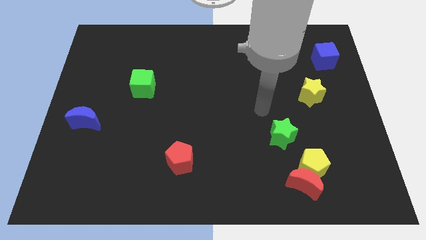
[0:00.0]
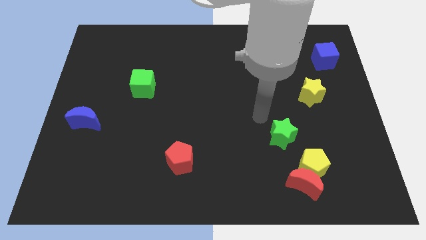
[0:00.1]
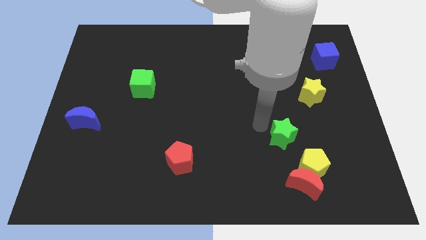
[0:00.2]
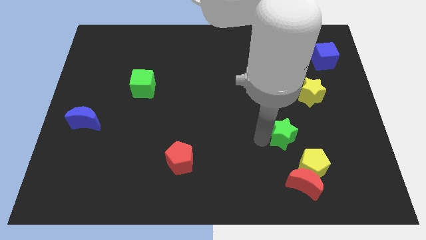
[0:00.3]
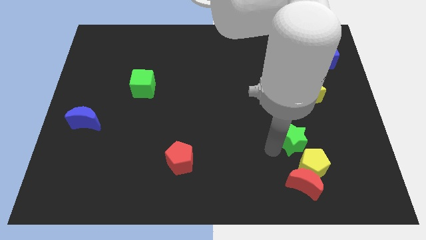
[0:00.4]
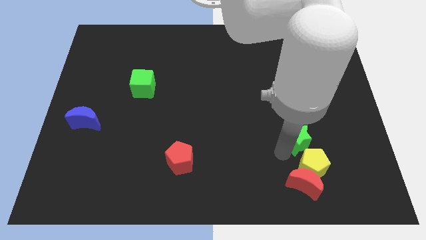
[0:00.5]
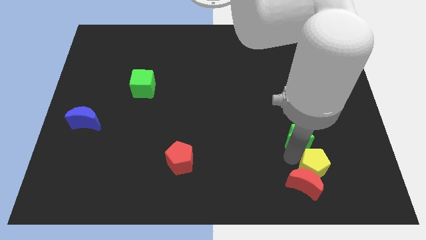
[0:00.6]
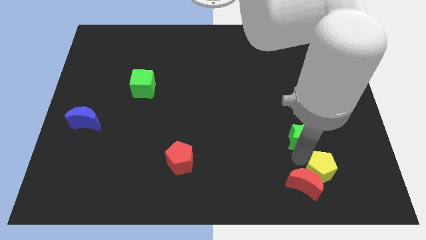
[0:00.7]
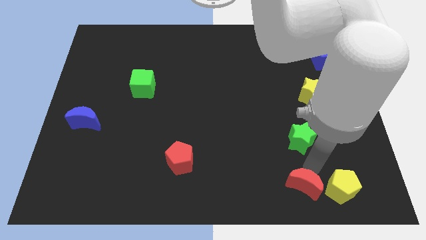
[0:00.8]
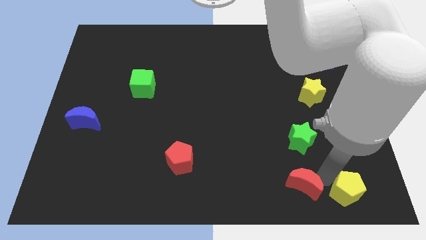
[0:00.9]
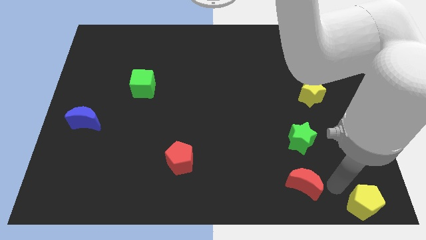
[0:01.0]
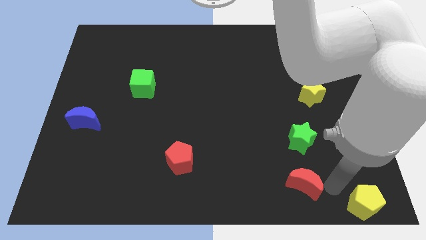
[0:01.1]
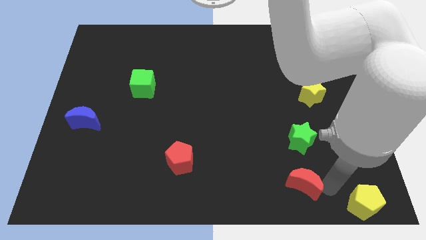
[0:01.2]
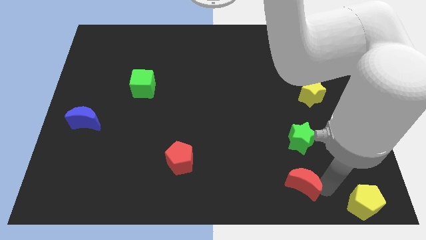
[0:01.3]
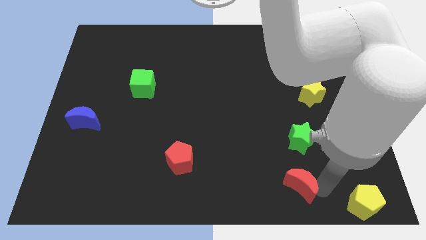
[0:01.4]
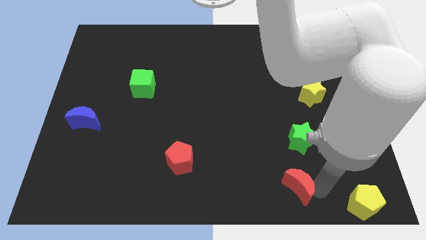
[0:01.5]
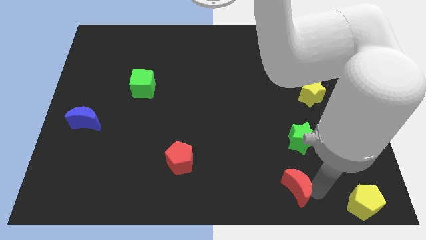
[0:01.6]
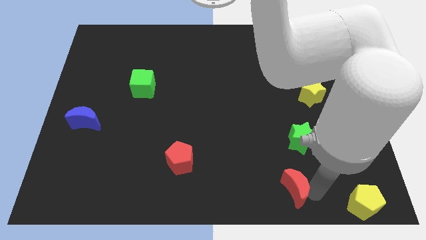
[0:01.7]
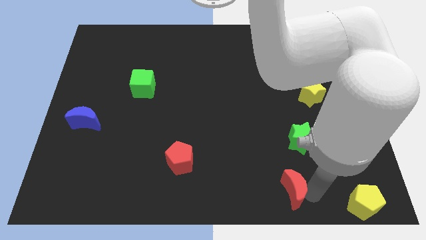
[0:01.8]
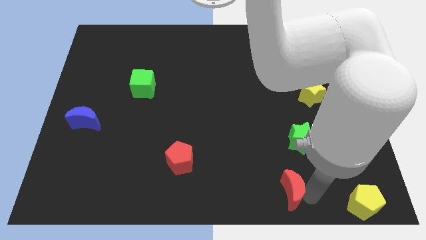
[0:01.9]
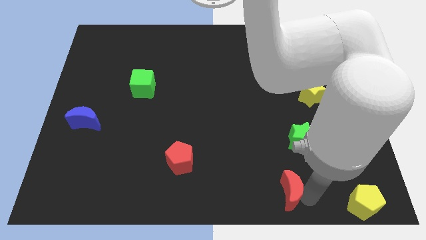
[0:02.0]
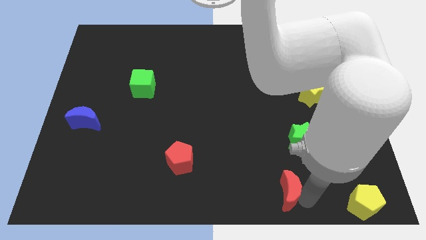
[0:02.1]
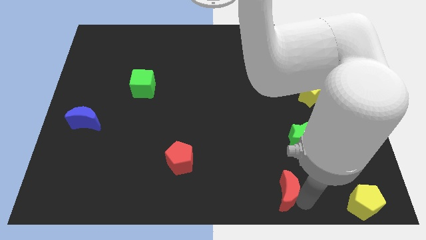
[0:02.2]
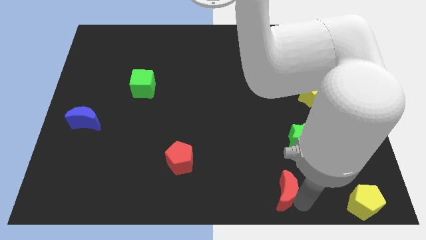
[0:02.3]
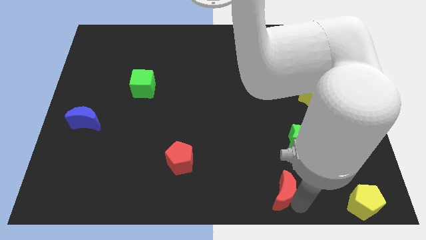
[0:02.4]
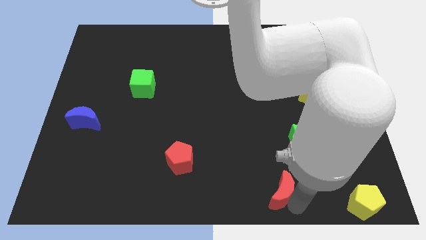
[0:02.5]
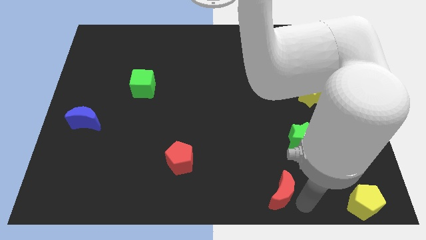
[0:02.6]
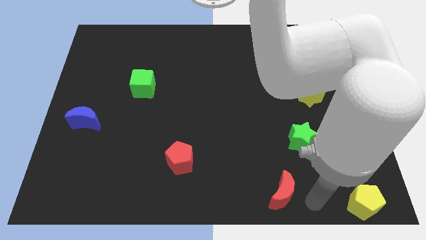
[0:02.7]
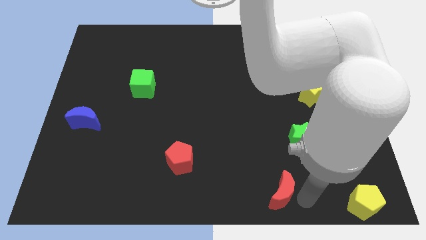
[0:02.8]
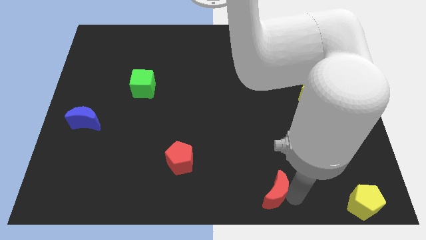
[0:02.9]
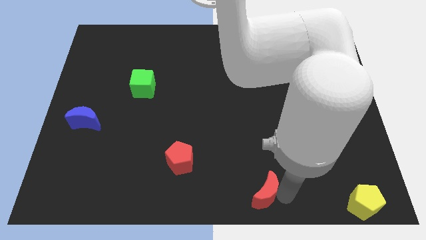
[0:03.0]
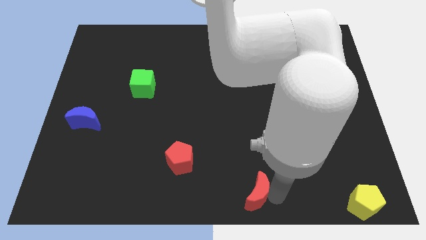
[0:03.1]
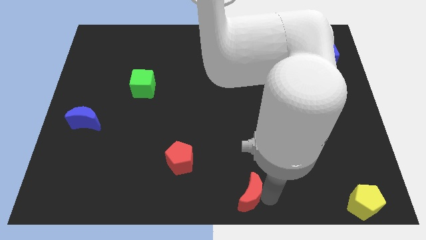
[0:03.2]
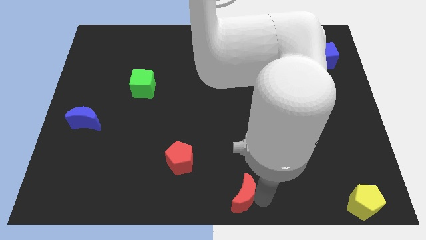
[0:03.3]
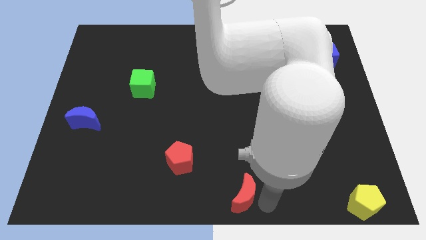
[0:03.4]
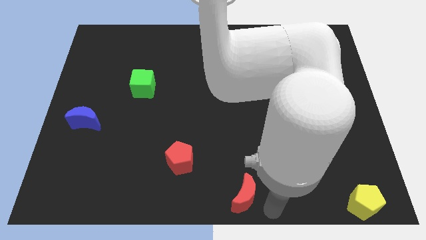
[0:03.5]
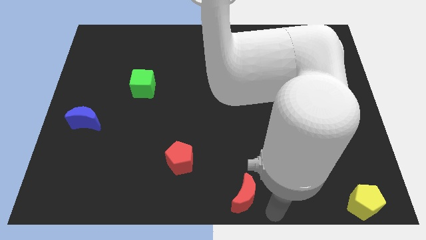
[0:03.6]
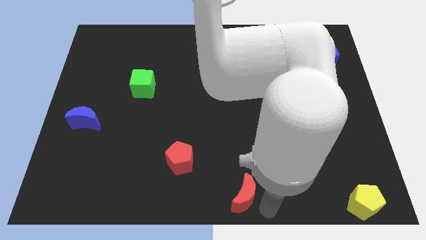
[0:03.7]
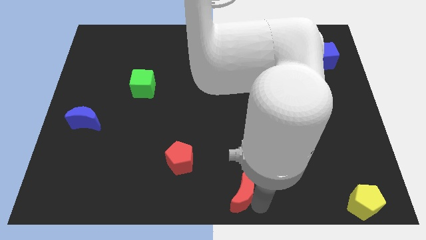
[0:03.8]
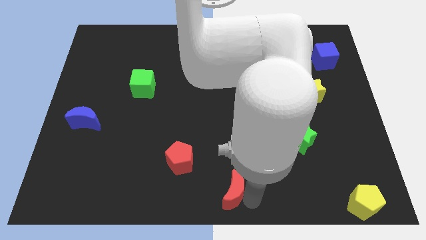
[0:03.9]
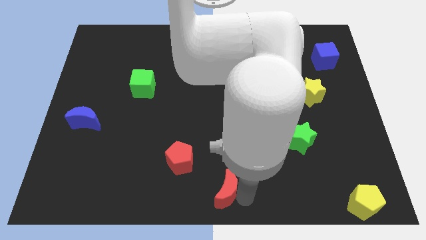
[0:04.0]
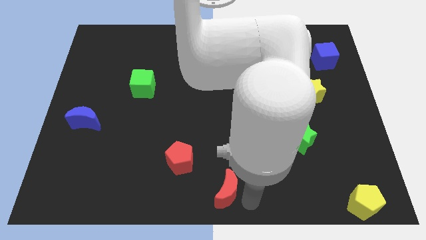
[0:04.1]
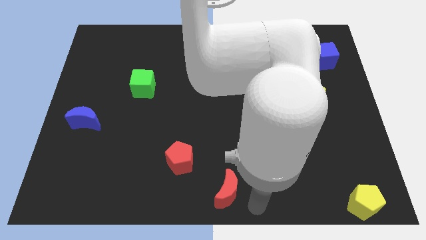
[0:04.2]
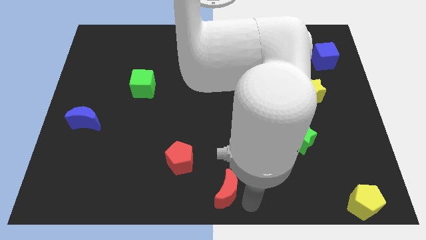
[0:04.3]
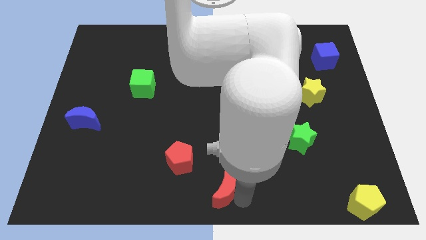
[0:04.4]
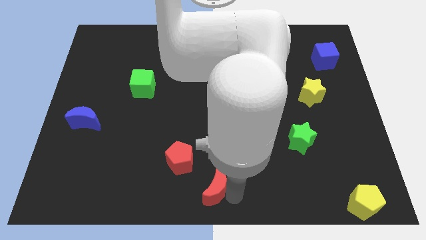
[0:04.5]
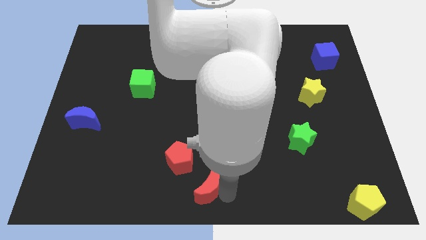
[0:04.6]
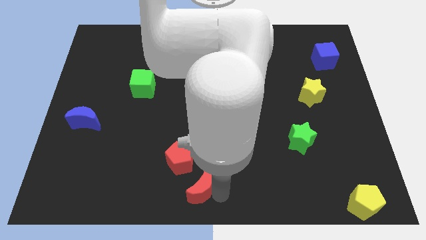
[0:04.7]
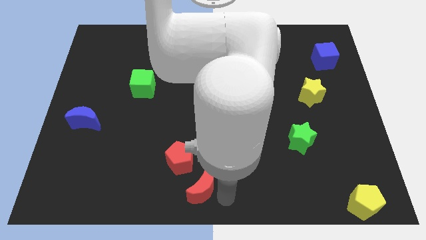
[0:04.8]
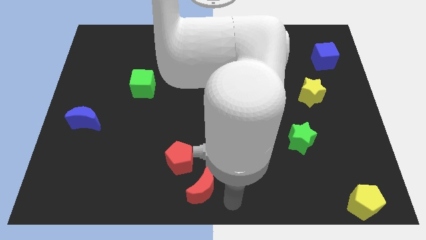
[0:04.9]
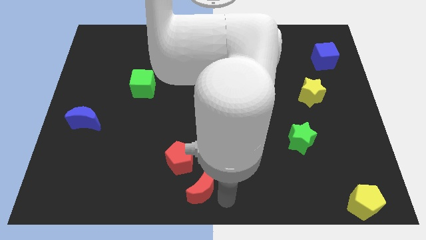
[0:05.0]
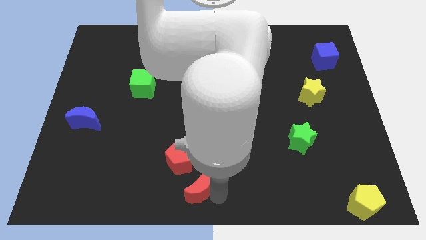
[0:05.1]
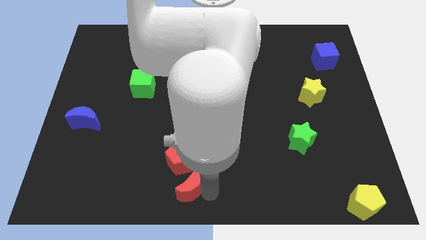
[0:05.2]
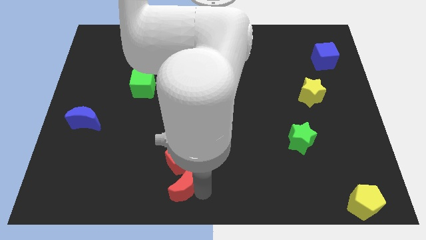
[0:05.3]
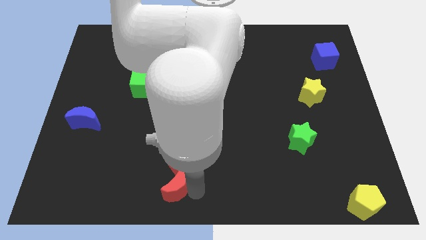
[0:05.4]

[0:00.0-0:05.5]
slide the red moon diagonally down and to the left of the red pentagon

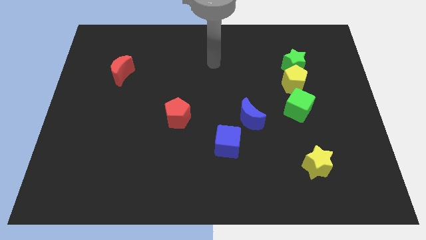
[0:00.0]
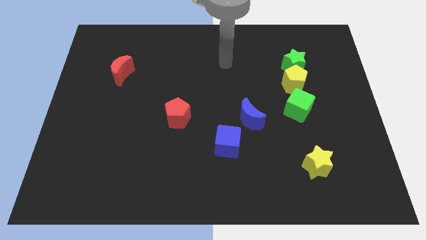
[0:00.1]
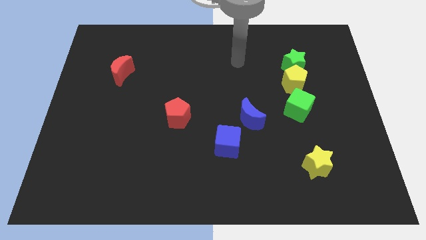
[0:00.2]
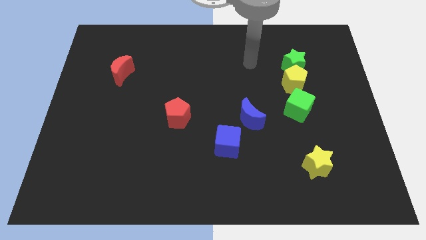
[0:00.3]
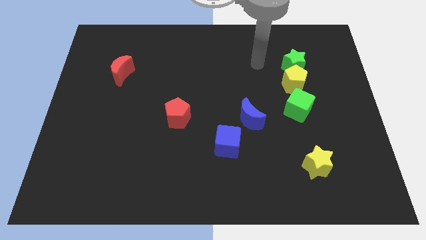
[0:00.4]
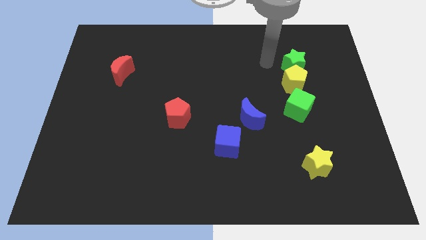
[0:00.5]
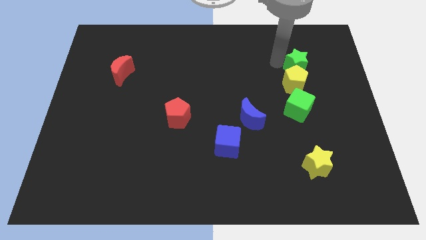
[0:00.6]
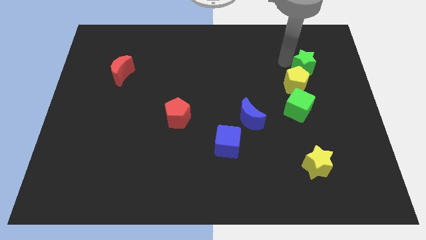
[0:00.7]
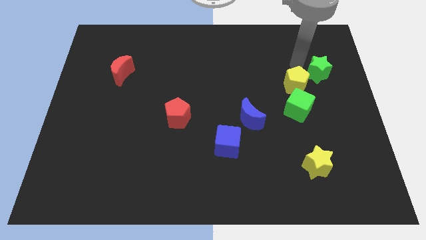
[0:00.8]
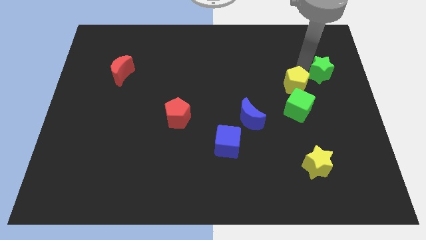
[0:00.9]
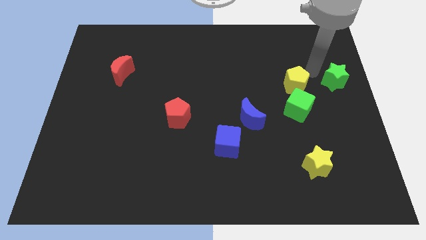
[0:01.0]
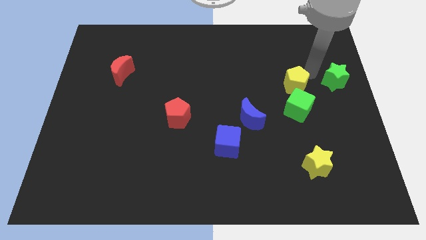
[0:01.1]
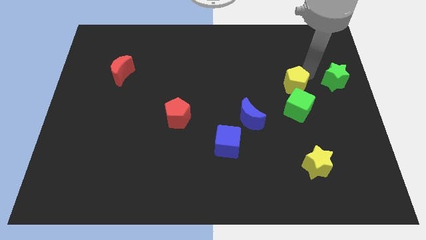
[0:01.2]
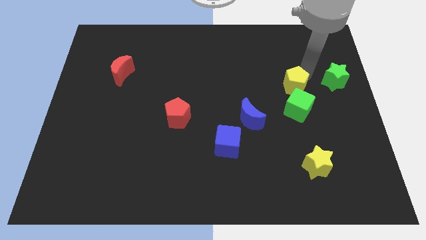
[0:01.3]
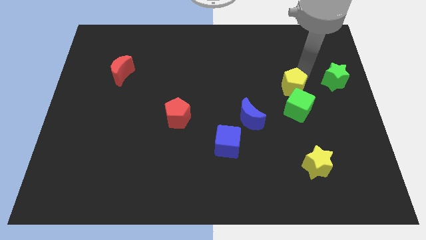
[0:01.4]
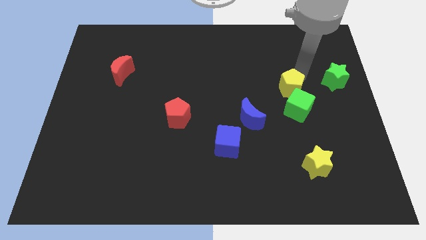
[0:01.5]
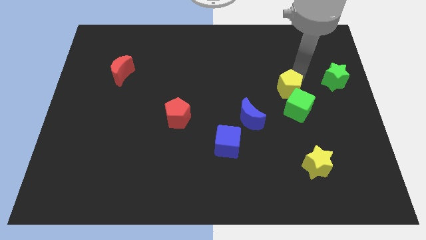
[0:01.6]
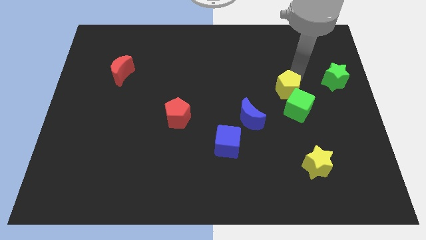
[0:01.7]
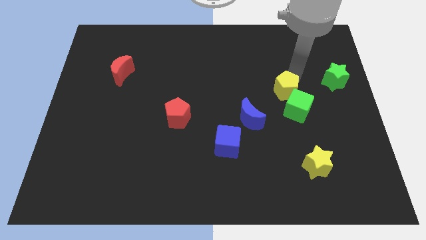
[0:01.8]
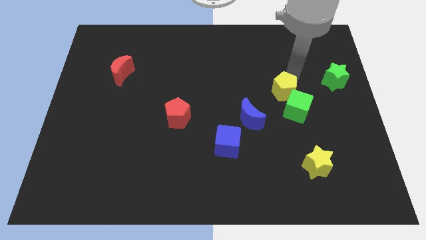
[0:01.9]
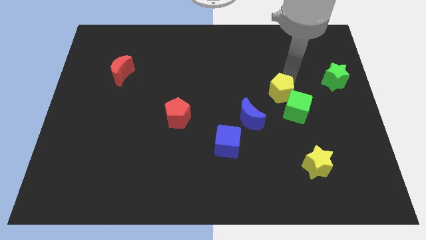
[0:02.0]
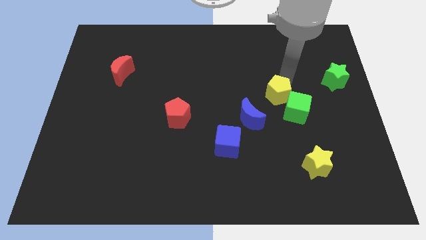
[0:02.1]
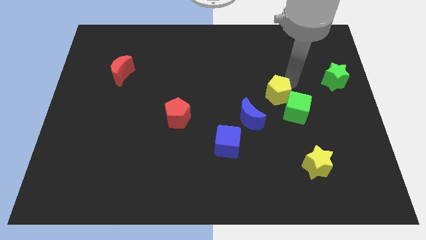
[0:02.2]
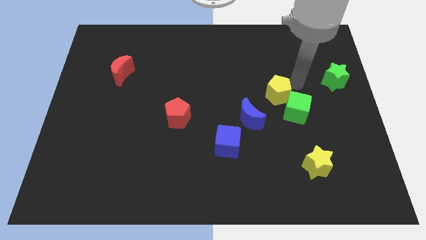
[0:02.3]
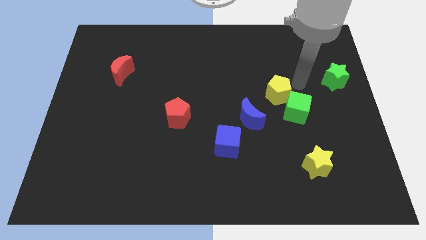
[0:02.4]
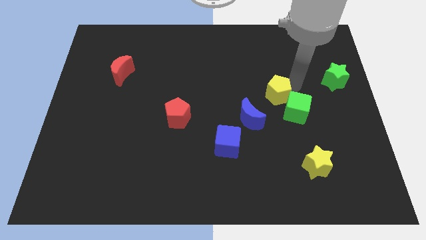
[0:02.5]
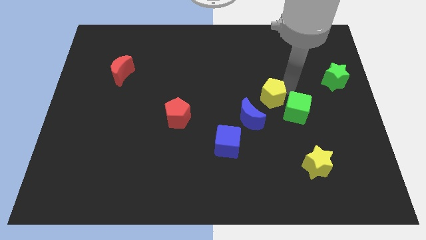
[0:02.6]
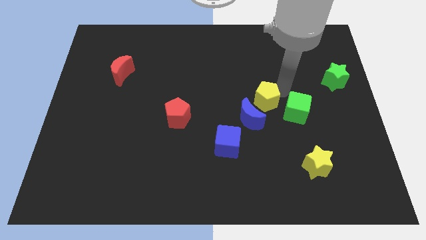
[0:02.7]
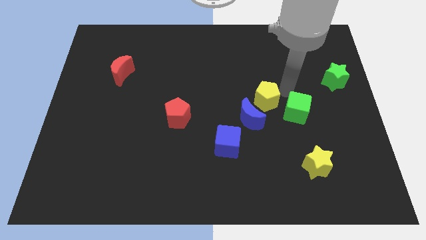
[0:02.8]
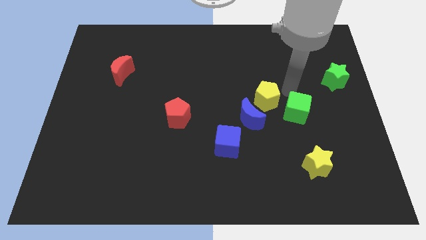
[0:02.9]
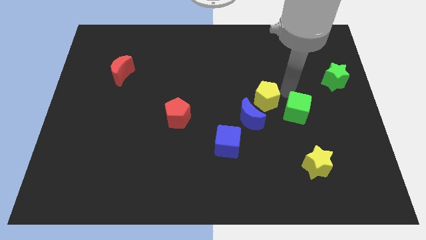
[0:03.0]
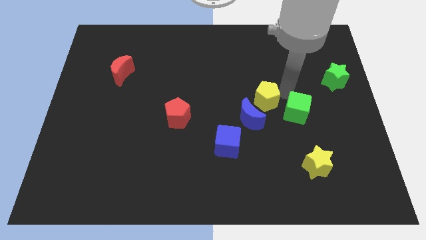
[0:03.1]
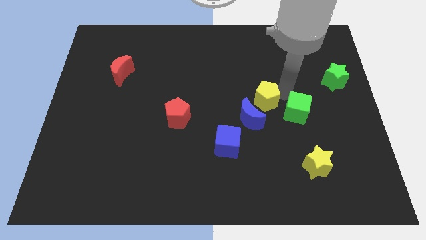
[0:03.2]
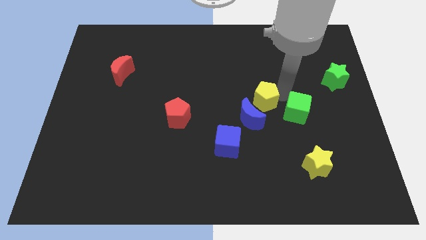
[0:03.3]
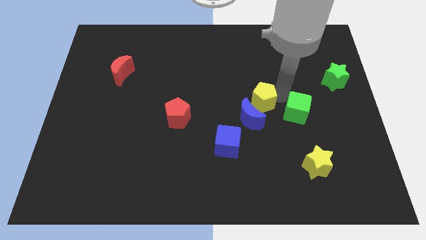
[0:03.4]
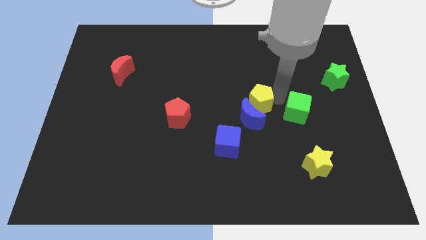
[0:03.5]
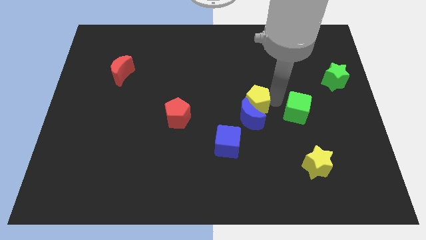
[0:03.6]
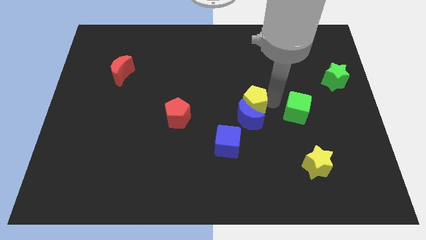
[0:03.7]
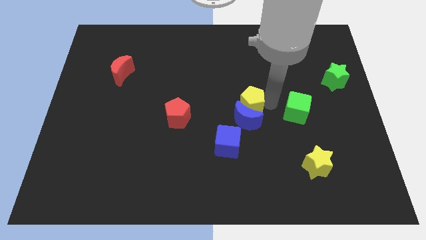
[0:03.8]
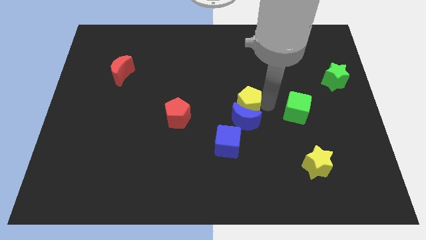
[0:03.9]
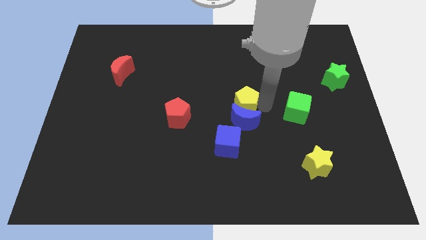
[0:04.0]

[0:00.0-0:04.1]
move the yellow pentagon above the blue cube
